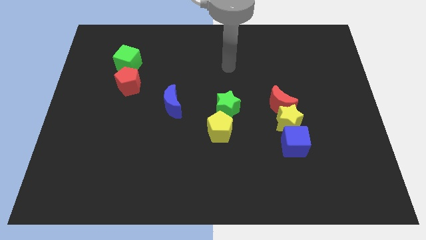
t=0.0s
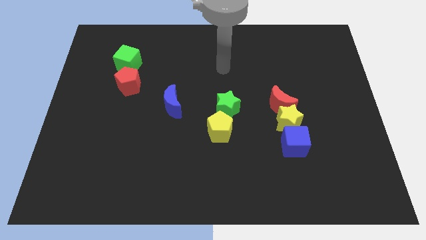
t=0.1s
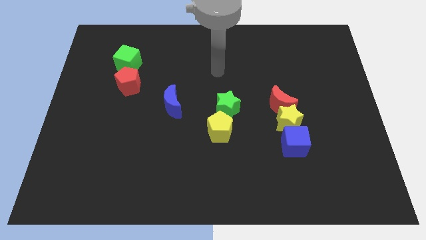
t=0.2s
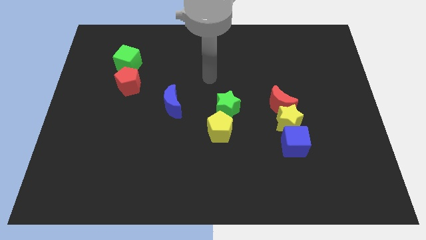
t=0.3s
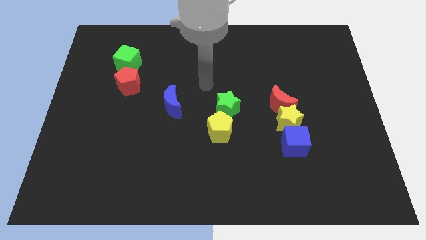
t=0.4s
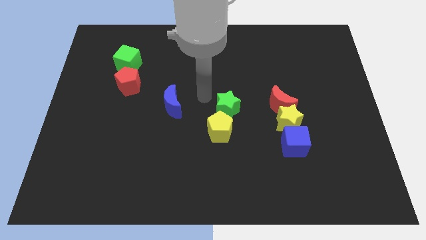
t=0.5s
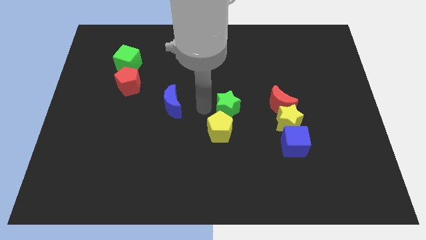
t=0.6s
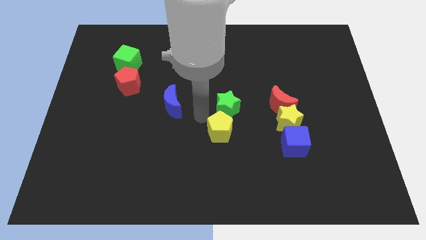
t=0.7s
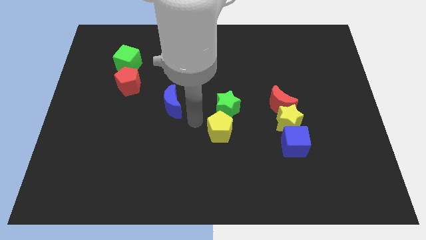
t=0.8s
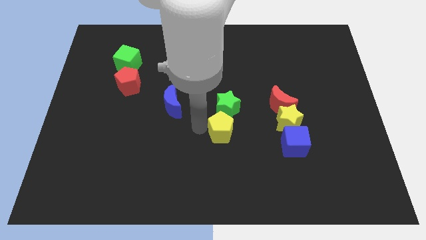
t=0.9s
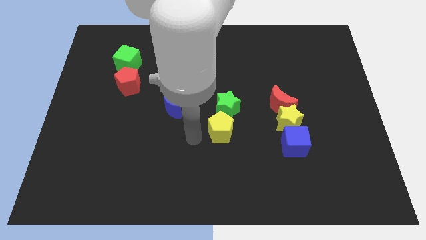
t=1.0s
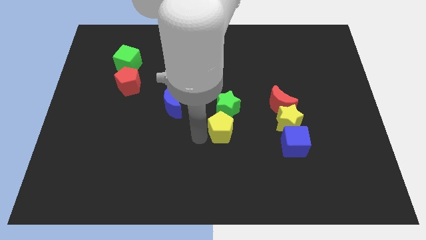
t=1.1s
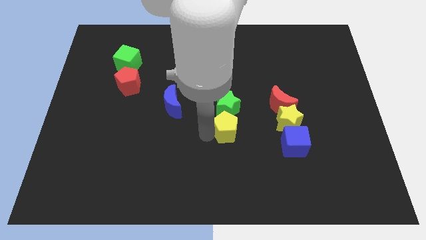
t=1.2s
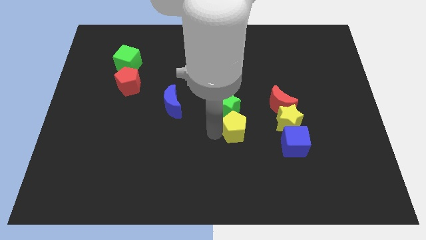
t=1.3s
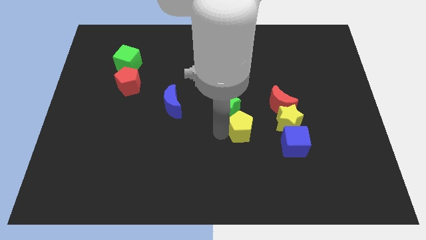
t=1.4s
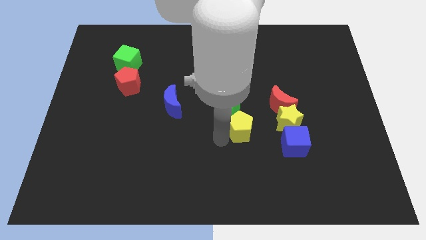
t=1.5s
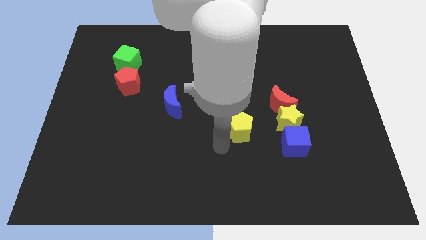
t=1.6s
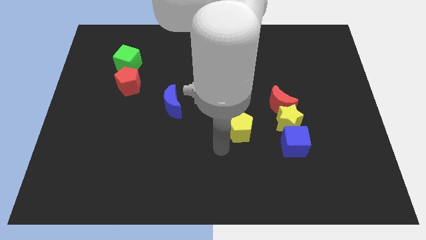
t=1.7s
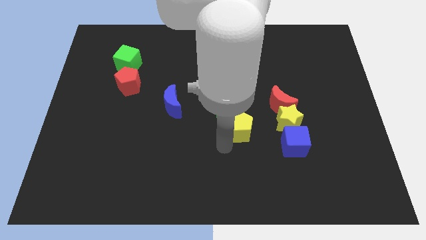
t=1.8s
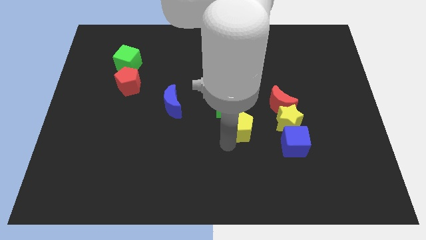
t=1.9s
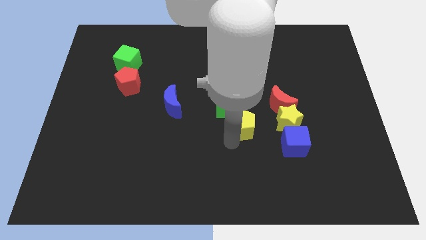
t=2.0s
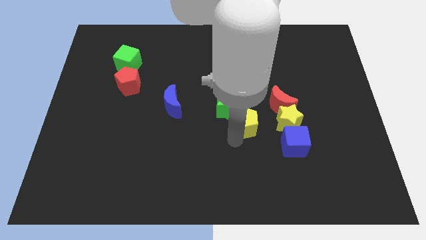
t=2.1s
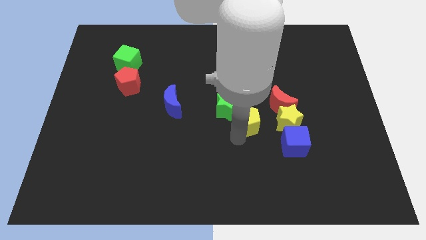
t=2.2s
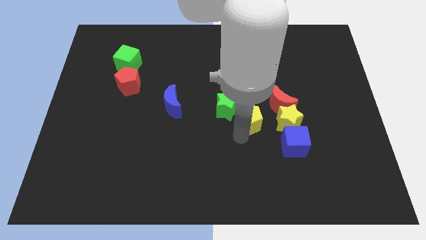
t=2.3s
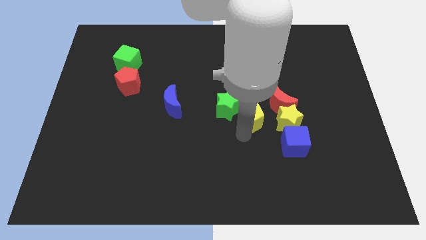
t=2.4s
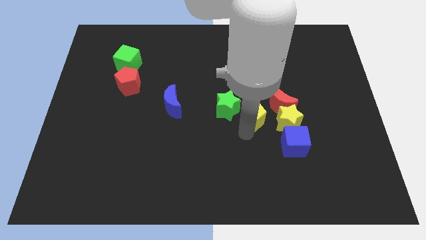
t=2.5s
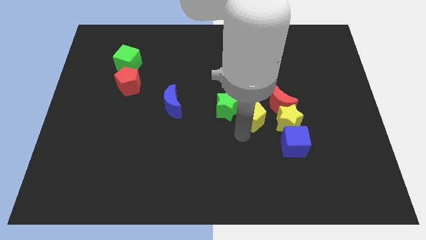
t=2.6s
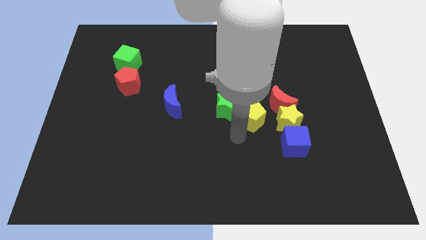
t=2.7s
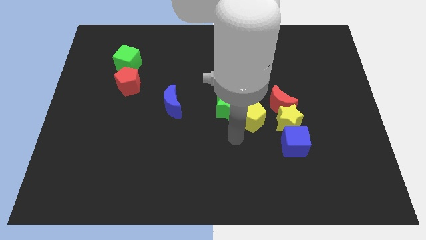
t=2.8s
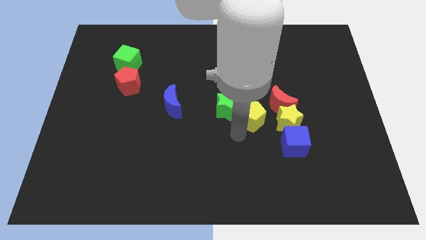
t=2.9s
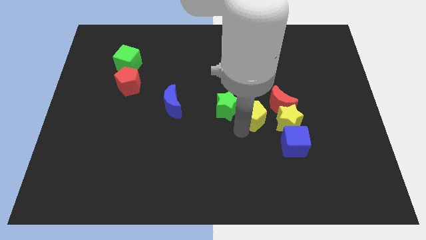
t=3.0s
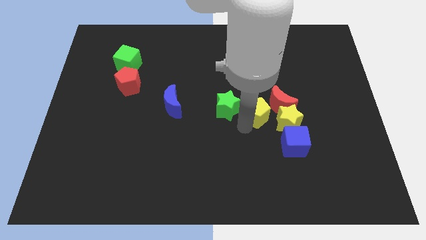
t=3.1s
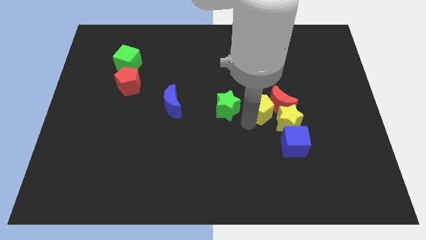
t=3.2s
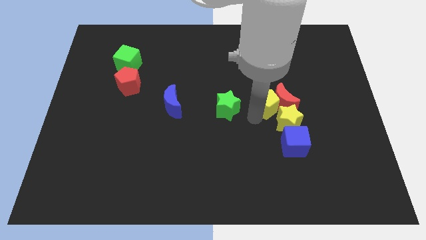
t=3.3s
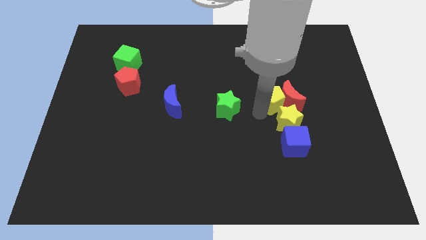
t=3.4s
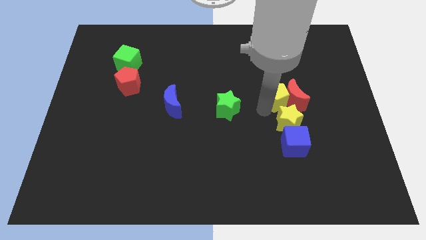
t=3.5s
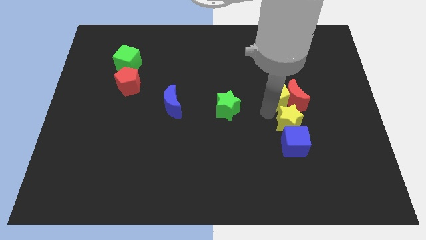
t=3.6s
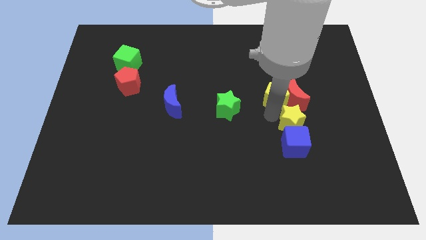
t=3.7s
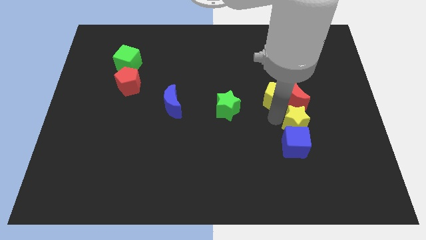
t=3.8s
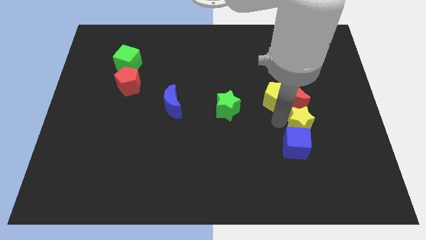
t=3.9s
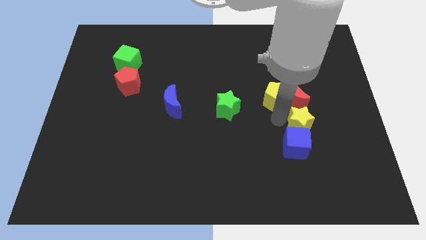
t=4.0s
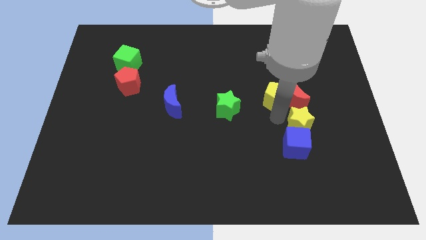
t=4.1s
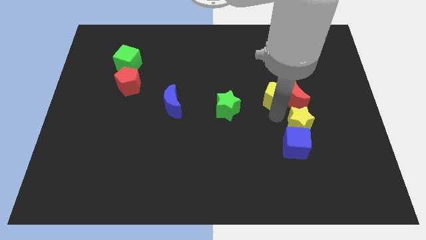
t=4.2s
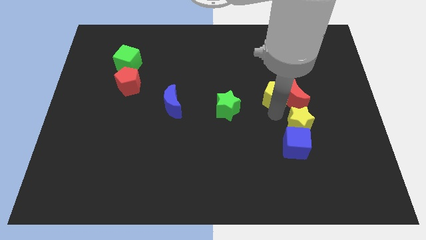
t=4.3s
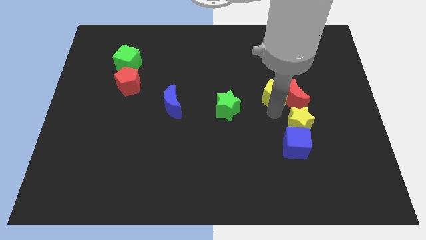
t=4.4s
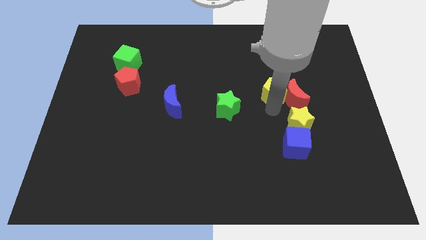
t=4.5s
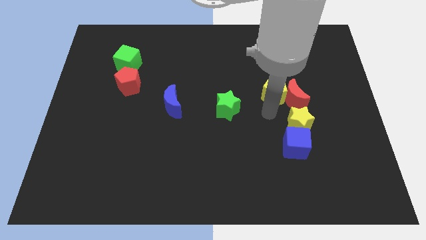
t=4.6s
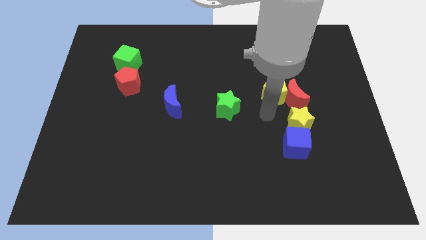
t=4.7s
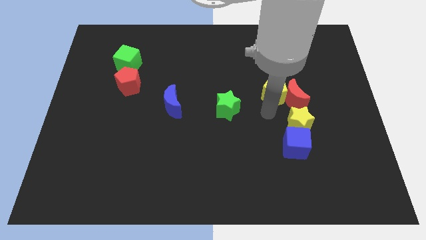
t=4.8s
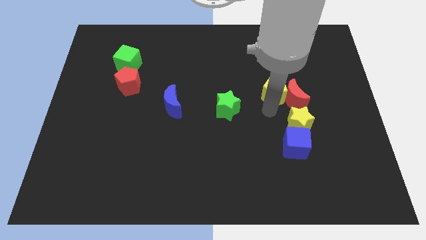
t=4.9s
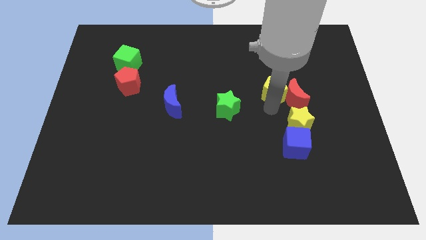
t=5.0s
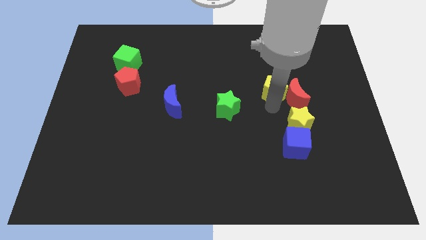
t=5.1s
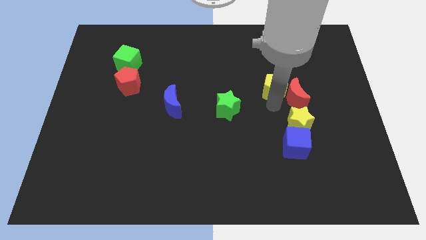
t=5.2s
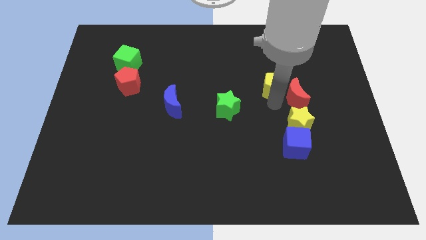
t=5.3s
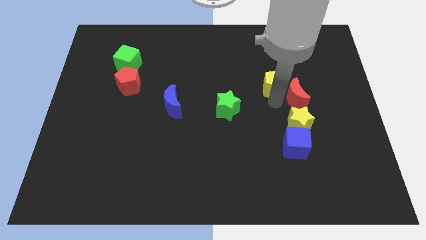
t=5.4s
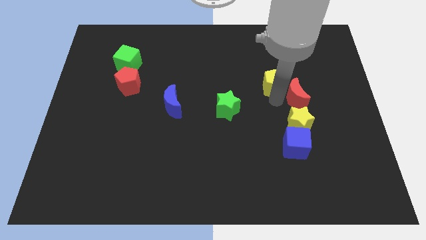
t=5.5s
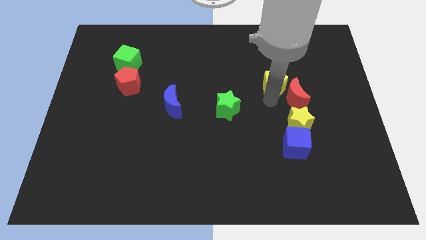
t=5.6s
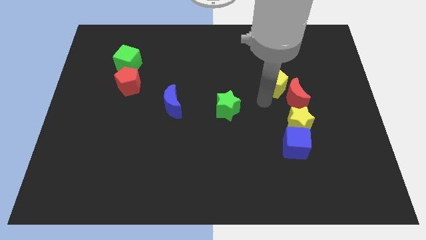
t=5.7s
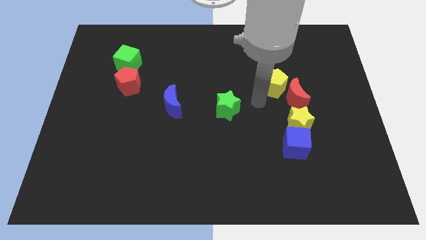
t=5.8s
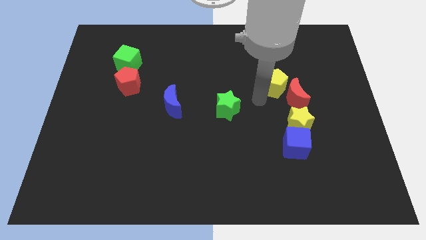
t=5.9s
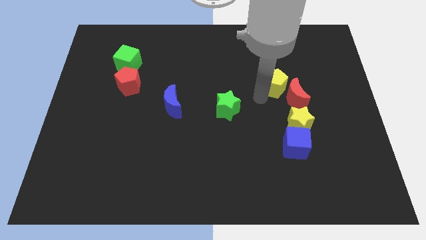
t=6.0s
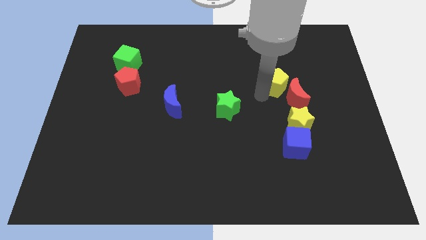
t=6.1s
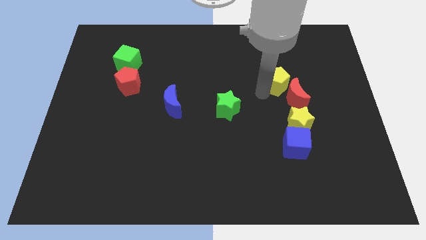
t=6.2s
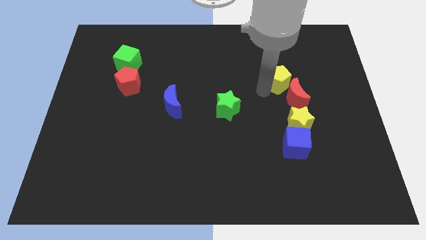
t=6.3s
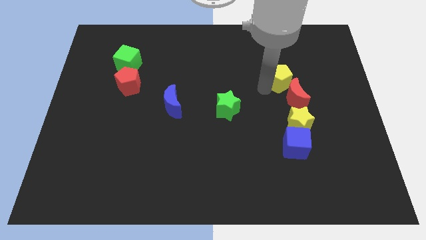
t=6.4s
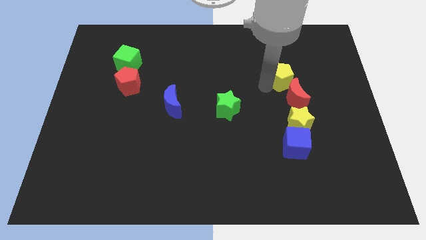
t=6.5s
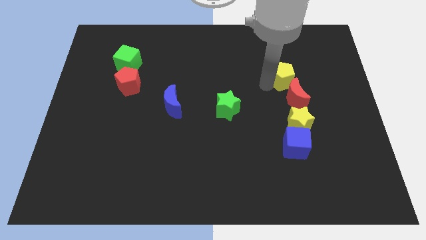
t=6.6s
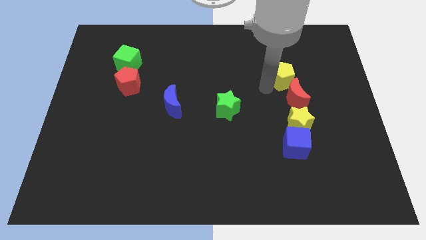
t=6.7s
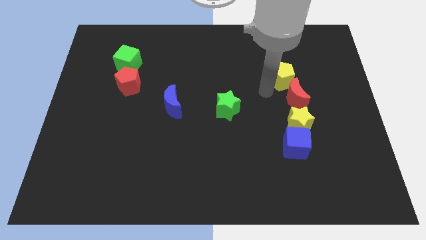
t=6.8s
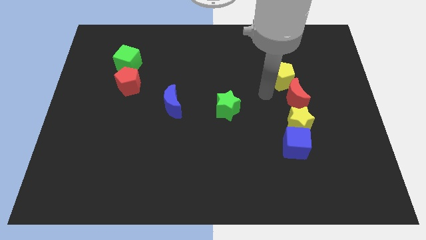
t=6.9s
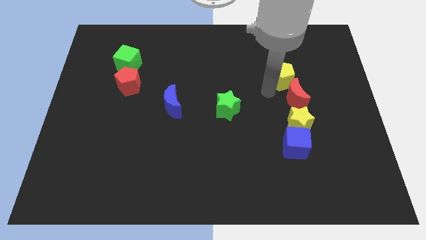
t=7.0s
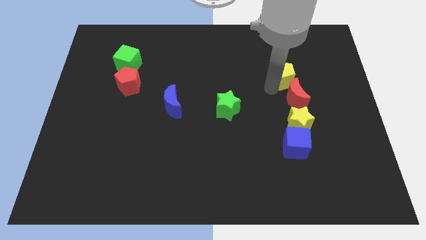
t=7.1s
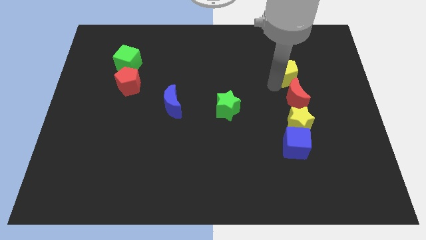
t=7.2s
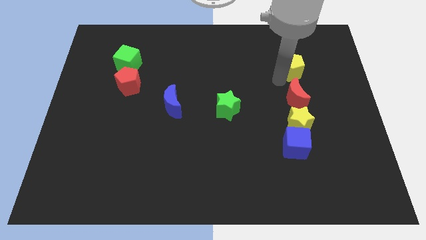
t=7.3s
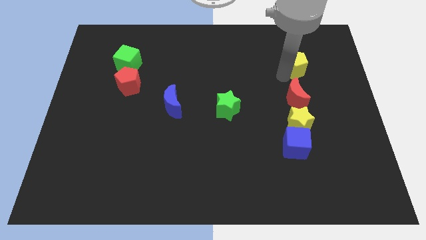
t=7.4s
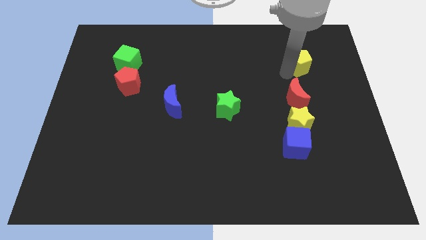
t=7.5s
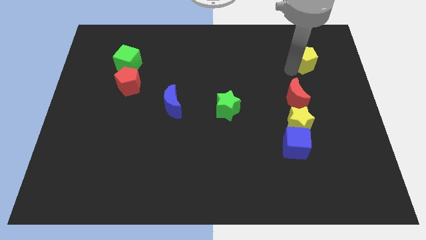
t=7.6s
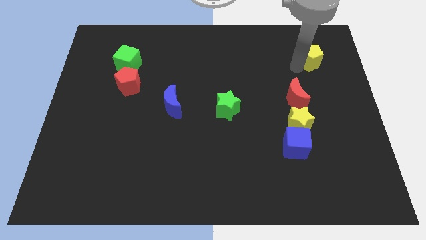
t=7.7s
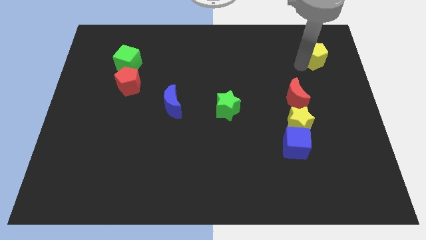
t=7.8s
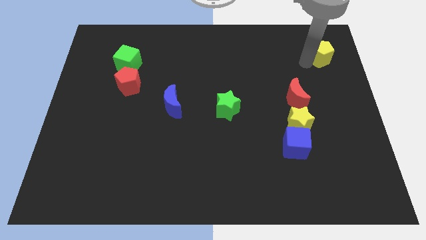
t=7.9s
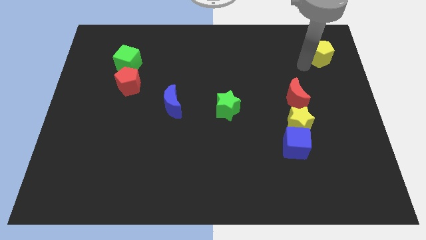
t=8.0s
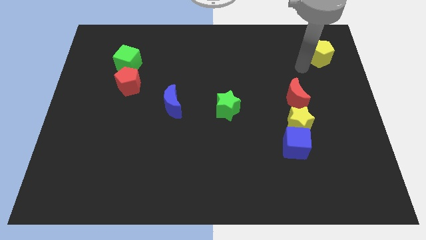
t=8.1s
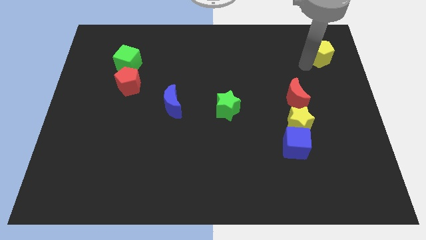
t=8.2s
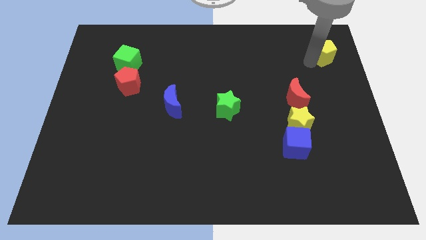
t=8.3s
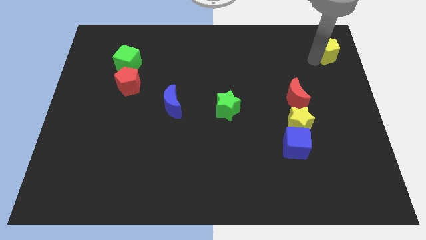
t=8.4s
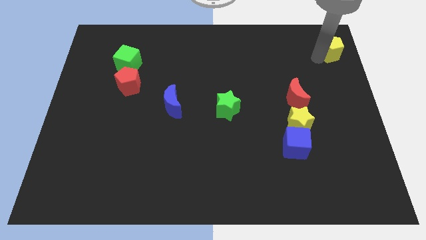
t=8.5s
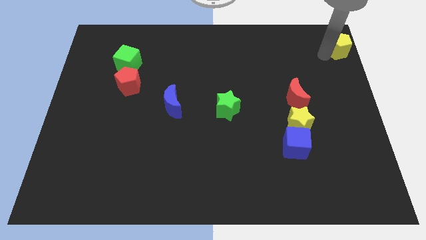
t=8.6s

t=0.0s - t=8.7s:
put the yellow pentagon to the top right corner
